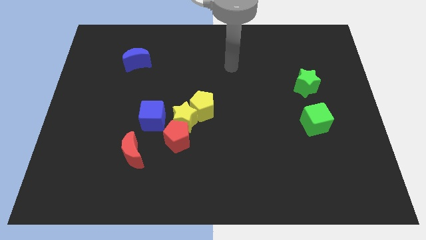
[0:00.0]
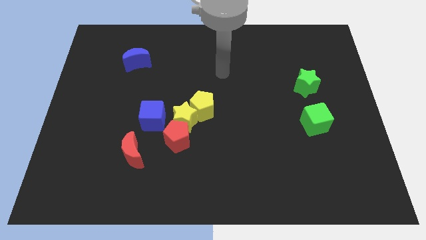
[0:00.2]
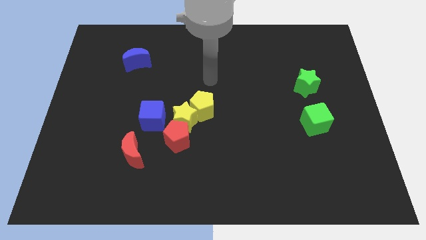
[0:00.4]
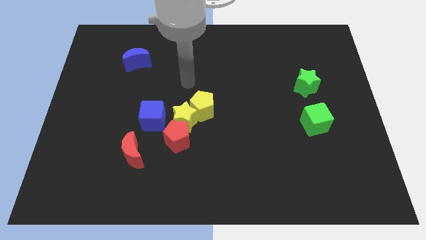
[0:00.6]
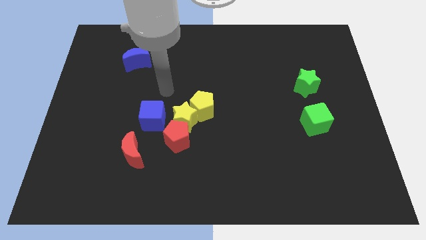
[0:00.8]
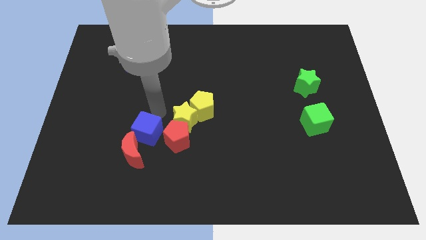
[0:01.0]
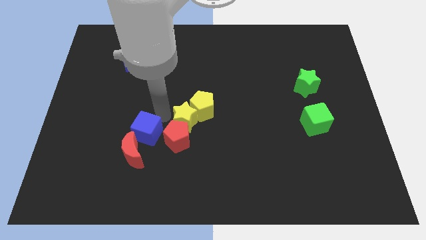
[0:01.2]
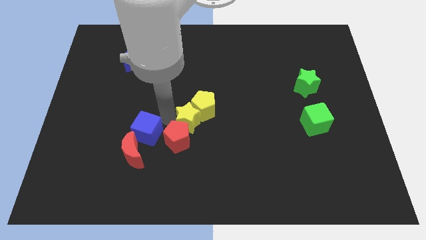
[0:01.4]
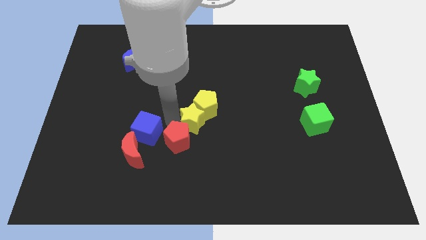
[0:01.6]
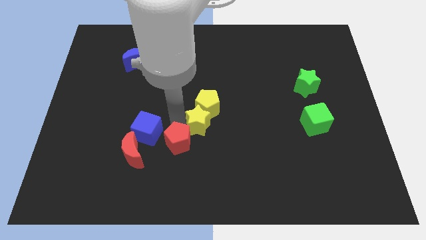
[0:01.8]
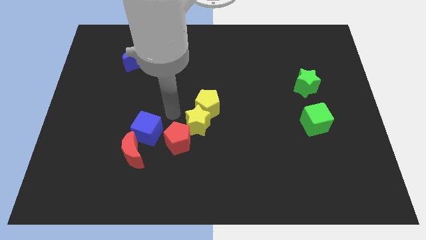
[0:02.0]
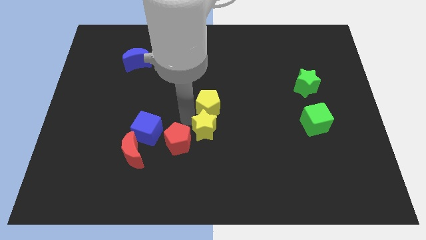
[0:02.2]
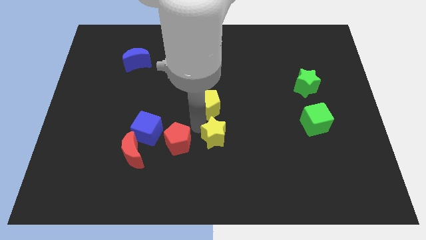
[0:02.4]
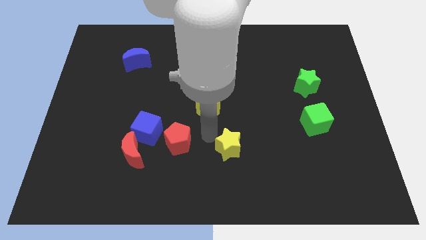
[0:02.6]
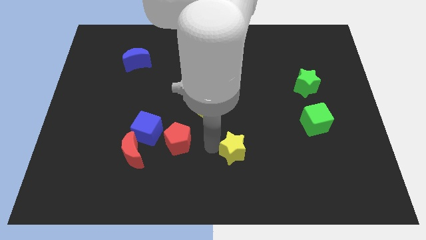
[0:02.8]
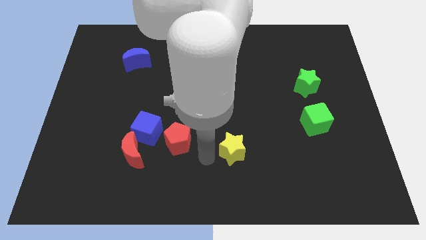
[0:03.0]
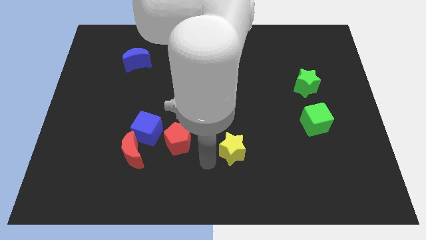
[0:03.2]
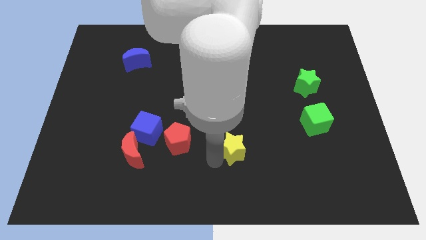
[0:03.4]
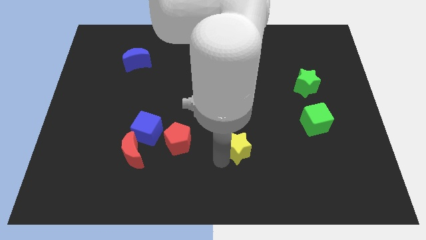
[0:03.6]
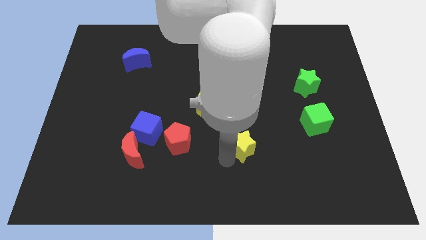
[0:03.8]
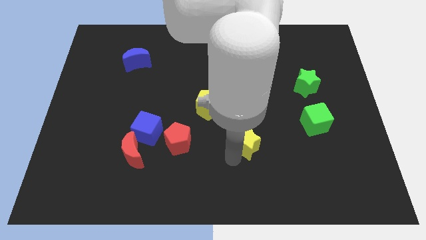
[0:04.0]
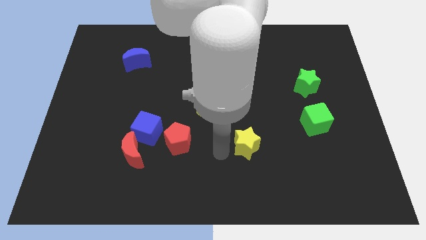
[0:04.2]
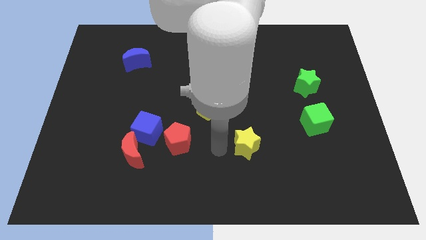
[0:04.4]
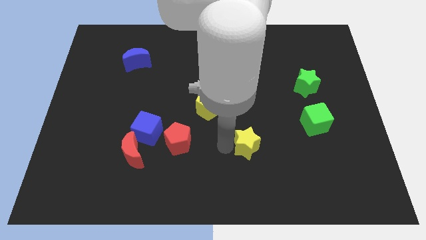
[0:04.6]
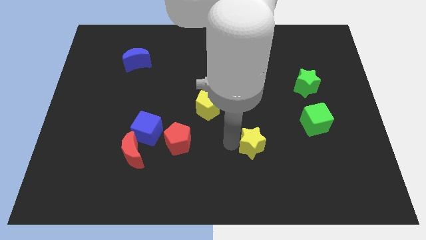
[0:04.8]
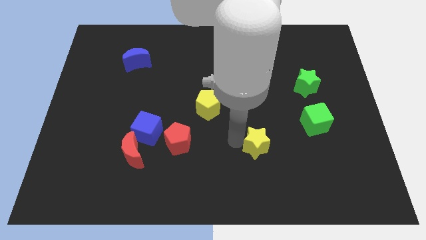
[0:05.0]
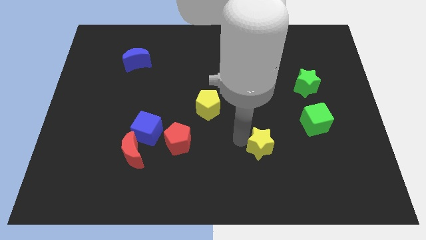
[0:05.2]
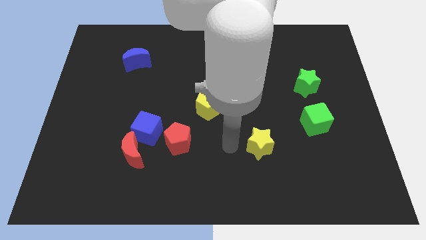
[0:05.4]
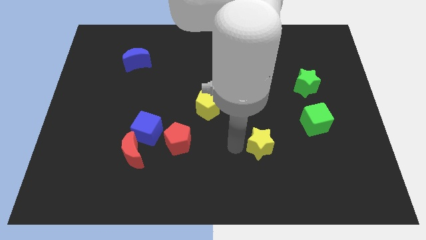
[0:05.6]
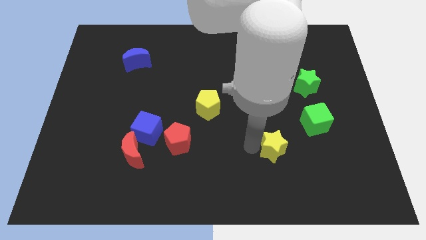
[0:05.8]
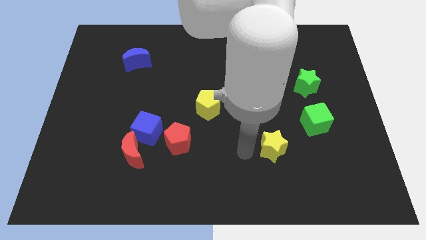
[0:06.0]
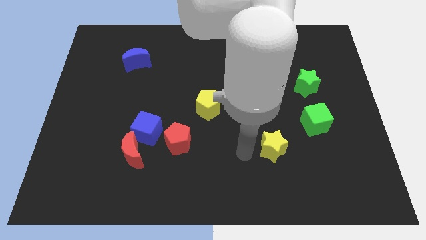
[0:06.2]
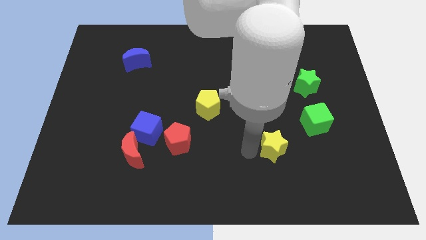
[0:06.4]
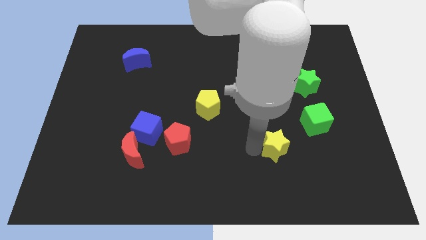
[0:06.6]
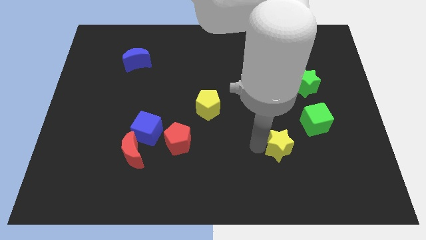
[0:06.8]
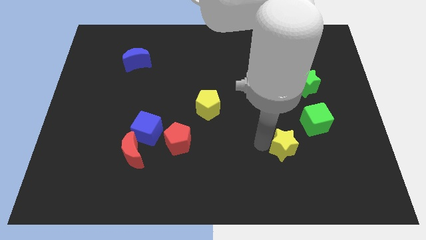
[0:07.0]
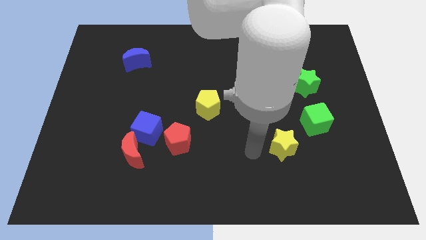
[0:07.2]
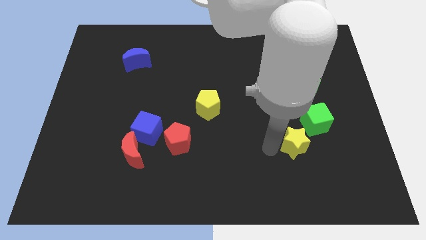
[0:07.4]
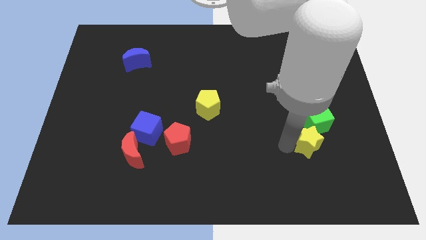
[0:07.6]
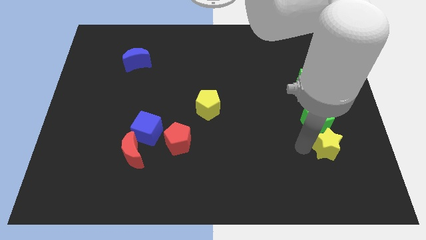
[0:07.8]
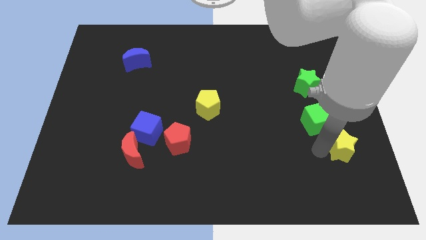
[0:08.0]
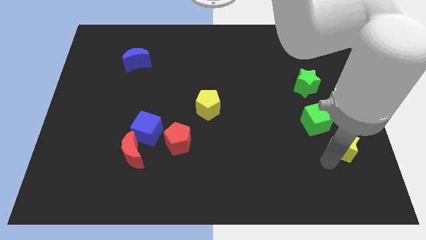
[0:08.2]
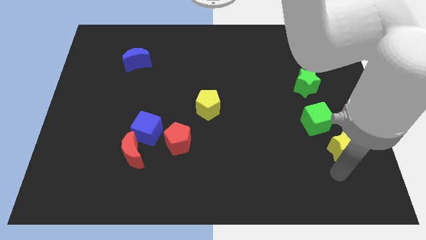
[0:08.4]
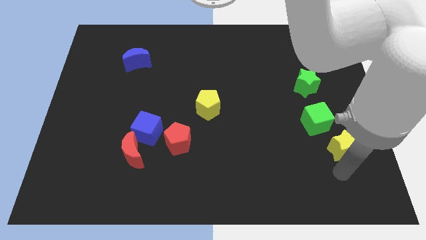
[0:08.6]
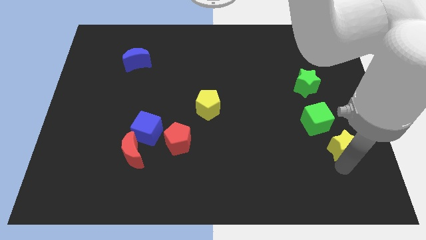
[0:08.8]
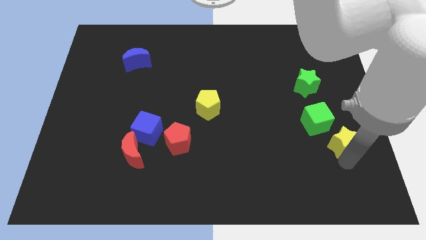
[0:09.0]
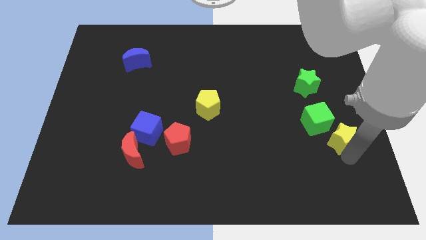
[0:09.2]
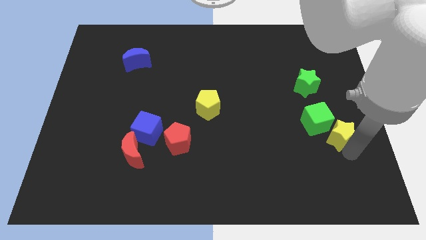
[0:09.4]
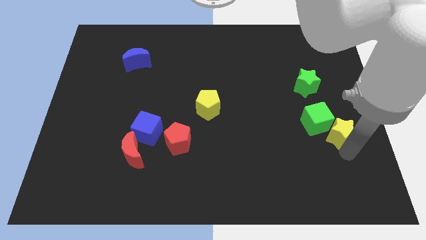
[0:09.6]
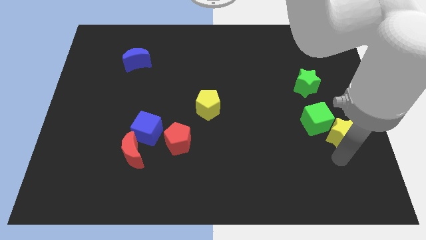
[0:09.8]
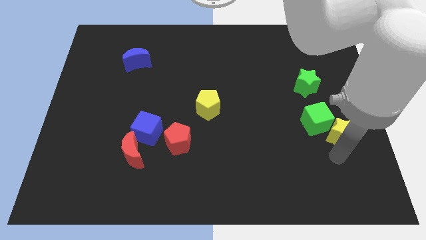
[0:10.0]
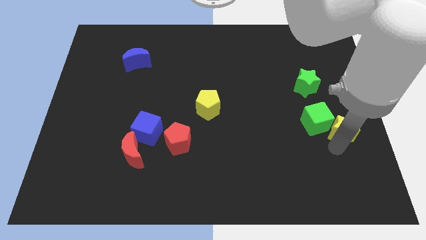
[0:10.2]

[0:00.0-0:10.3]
slide the yellow star to the center right

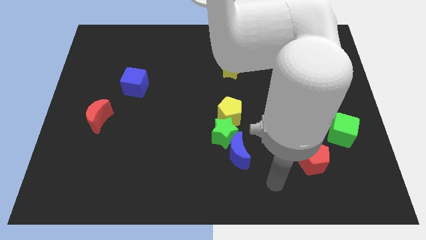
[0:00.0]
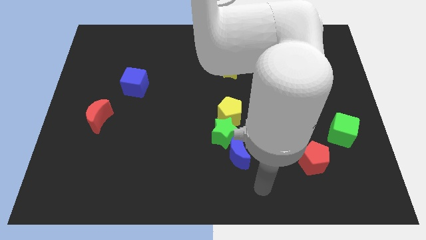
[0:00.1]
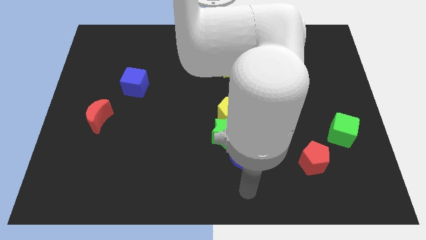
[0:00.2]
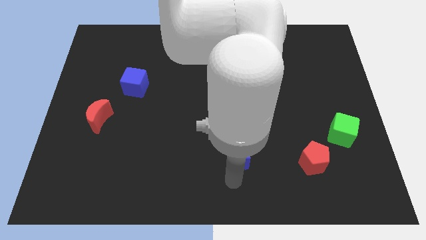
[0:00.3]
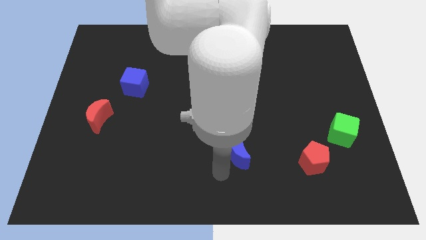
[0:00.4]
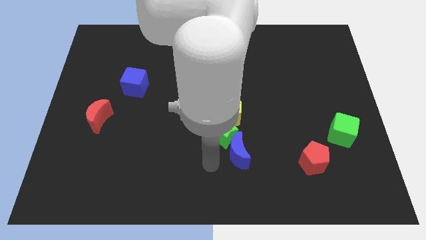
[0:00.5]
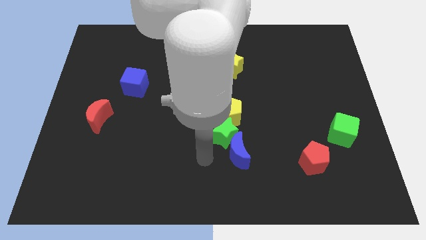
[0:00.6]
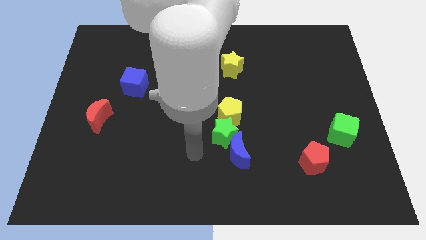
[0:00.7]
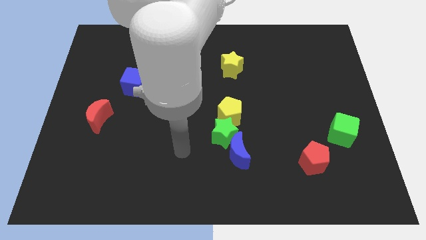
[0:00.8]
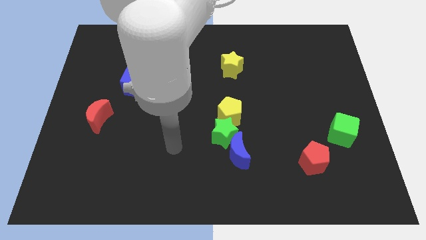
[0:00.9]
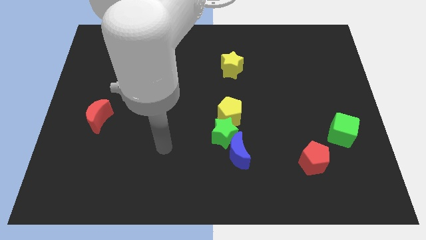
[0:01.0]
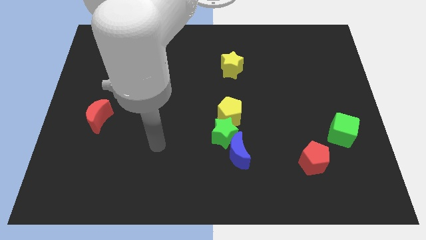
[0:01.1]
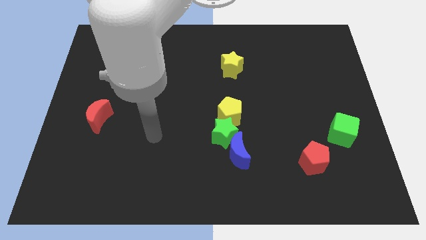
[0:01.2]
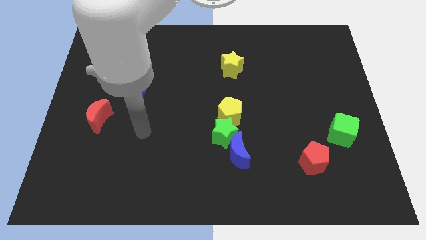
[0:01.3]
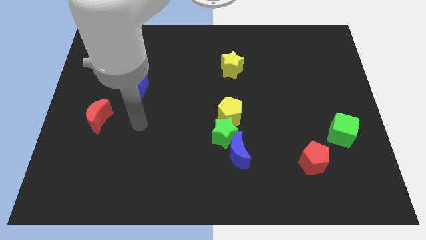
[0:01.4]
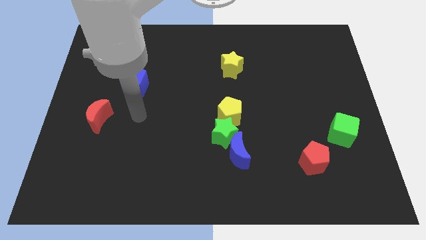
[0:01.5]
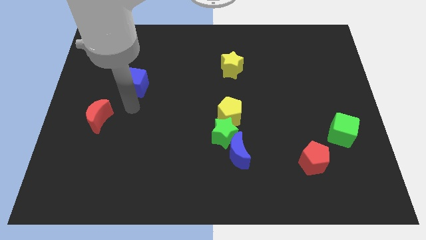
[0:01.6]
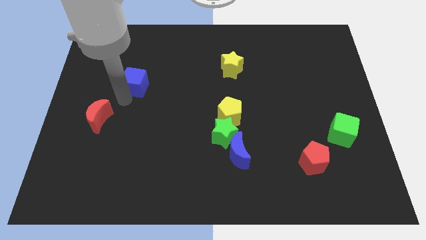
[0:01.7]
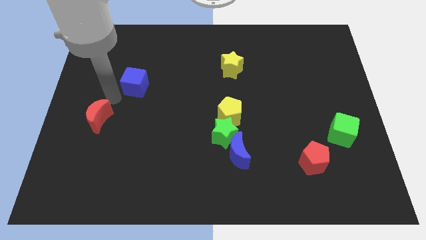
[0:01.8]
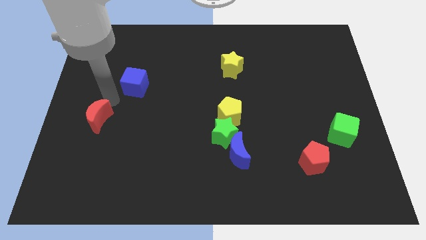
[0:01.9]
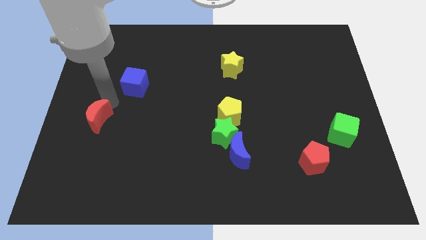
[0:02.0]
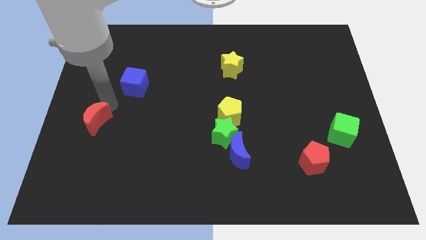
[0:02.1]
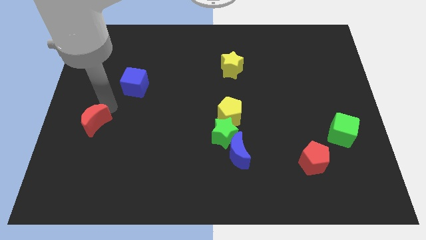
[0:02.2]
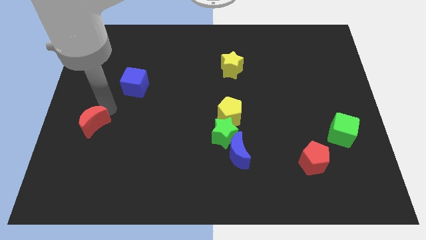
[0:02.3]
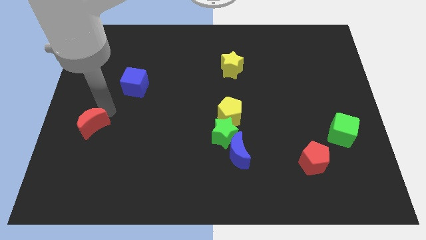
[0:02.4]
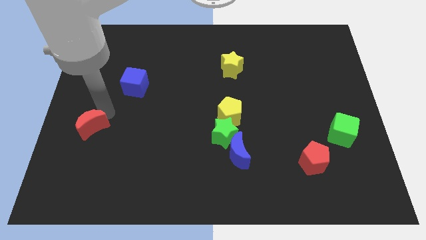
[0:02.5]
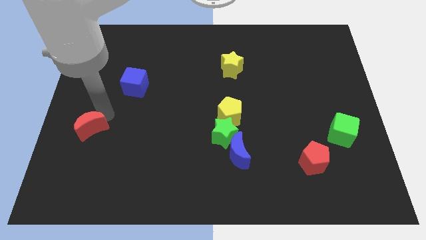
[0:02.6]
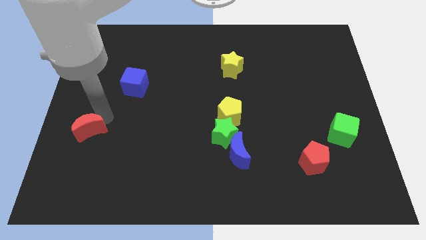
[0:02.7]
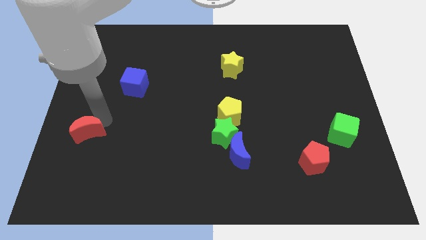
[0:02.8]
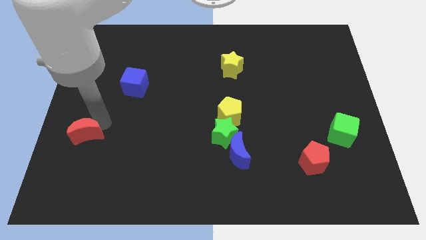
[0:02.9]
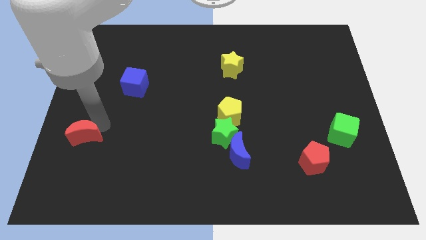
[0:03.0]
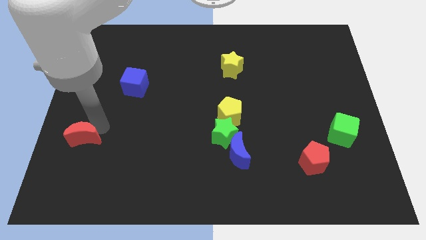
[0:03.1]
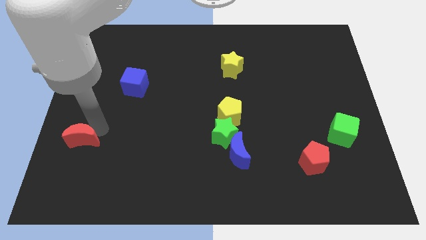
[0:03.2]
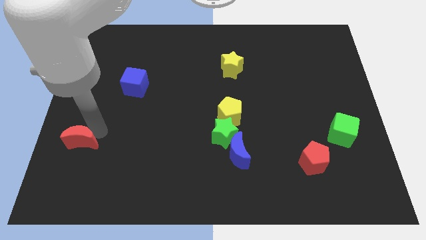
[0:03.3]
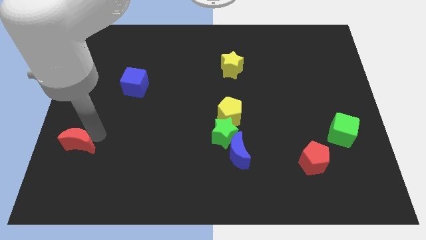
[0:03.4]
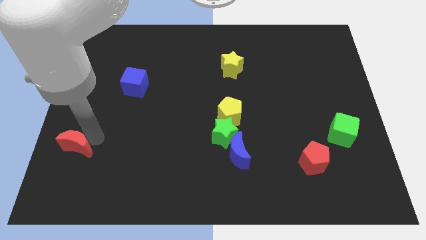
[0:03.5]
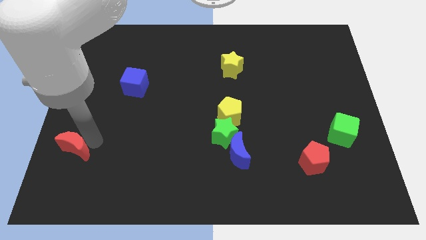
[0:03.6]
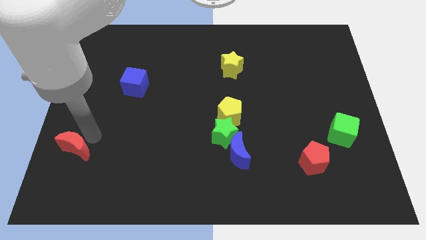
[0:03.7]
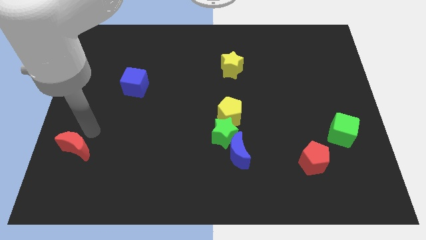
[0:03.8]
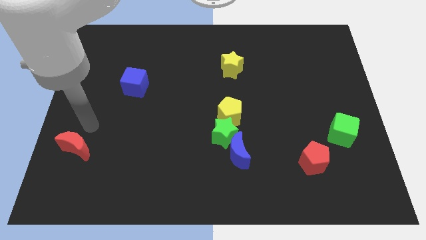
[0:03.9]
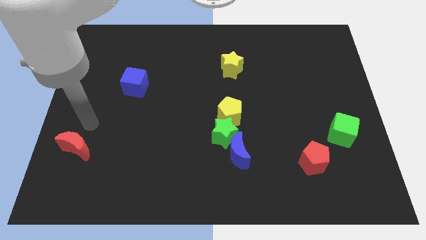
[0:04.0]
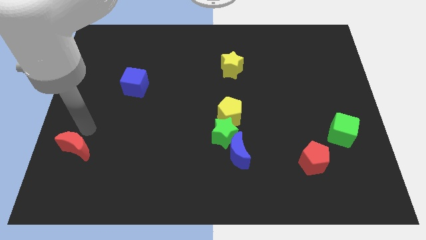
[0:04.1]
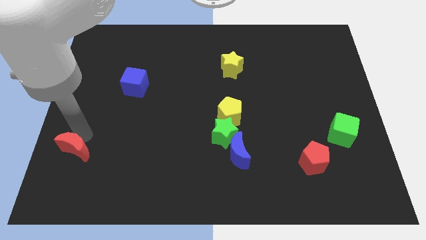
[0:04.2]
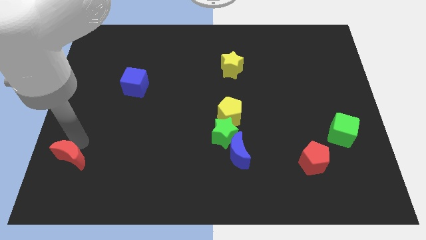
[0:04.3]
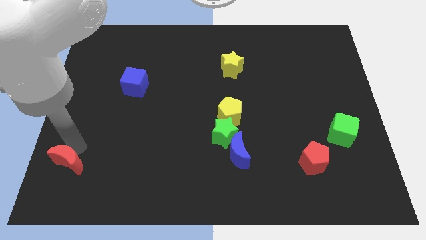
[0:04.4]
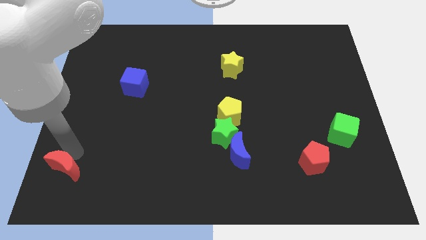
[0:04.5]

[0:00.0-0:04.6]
put the red moon to the lower left corner
